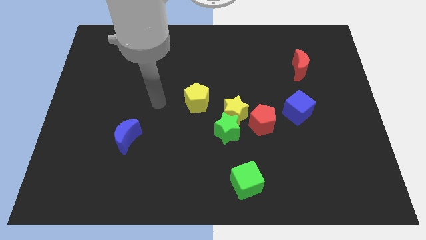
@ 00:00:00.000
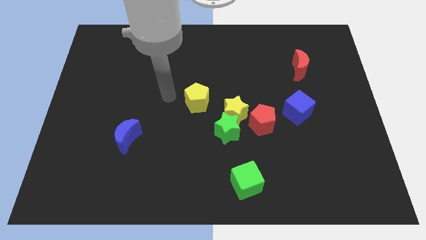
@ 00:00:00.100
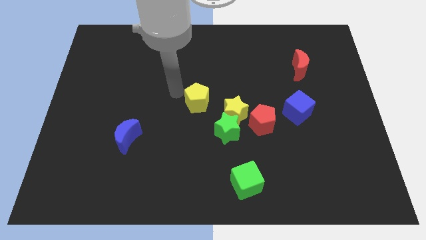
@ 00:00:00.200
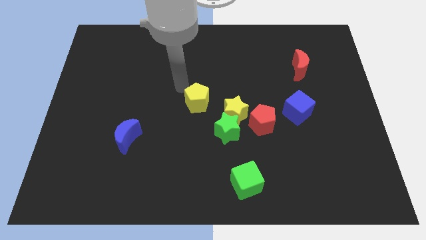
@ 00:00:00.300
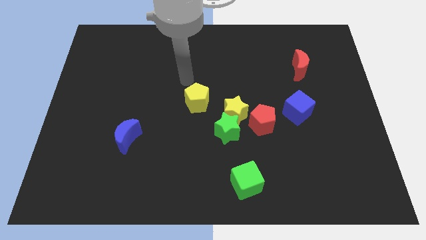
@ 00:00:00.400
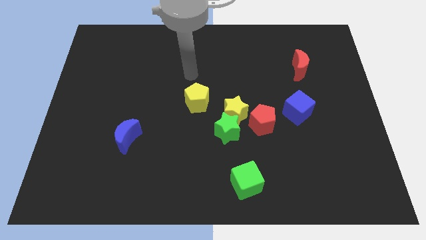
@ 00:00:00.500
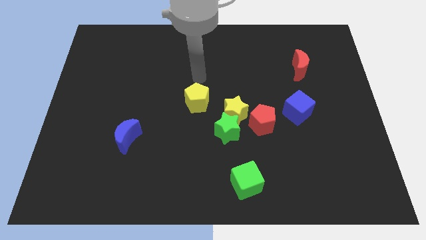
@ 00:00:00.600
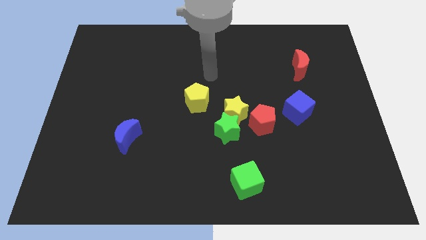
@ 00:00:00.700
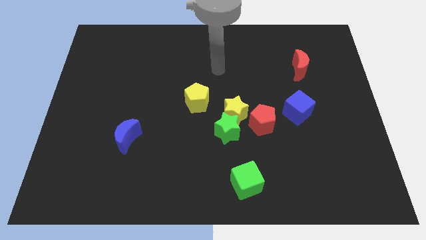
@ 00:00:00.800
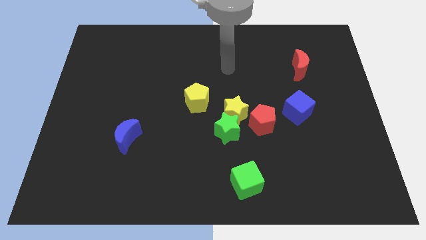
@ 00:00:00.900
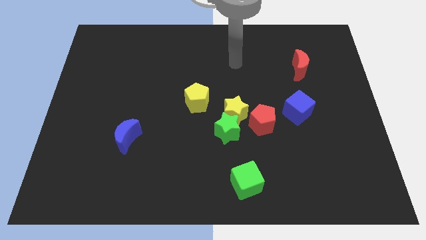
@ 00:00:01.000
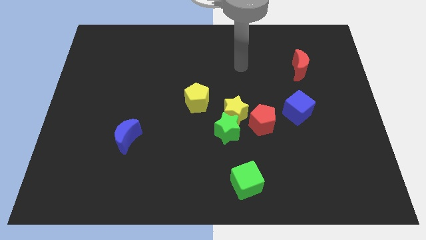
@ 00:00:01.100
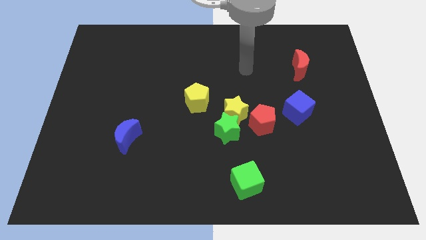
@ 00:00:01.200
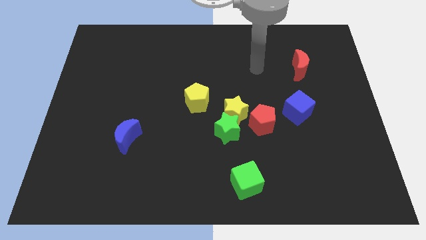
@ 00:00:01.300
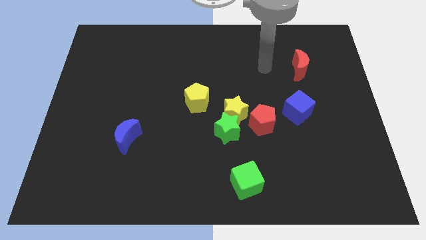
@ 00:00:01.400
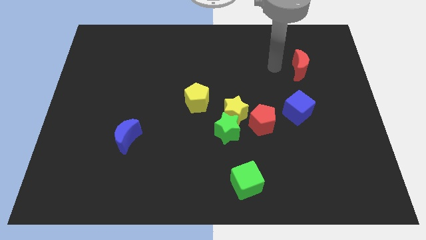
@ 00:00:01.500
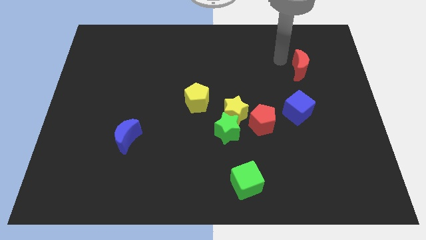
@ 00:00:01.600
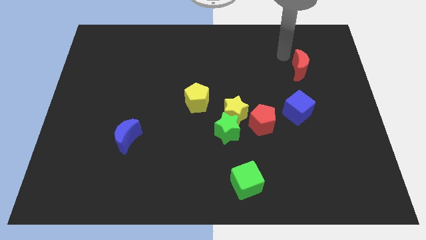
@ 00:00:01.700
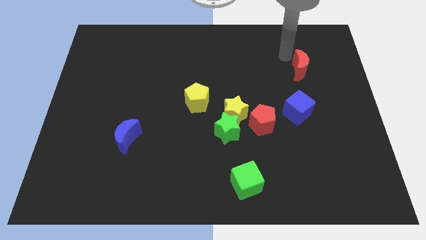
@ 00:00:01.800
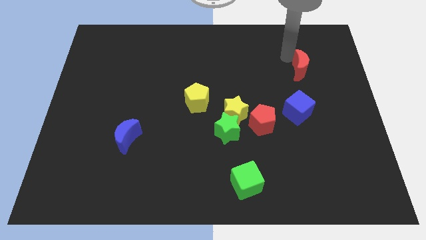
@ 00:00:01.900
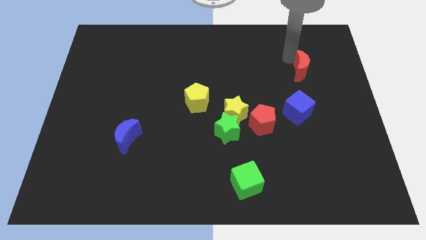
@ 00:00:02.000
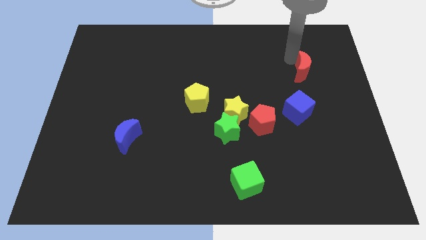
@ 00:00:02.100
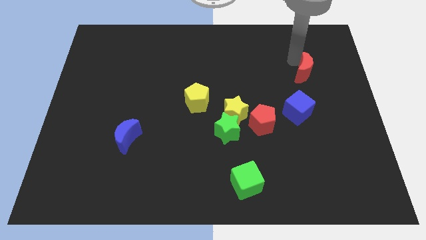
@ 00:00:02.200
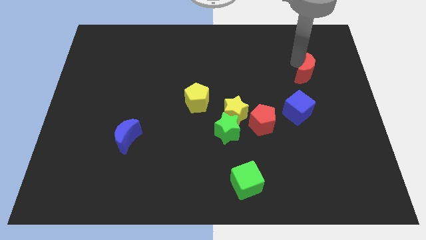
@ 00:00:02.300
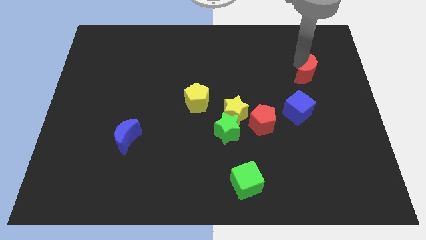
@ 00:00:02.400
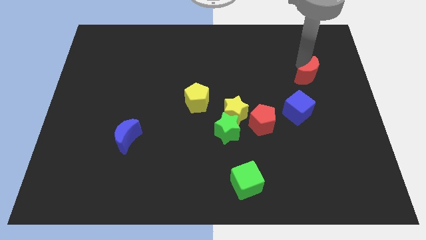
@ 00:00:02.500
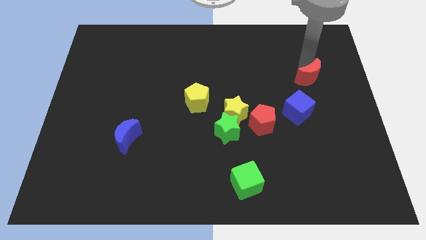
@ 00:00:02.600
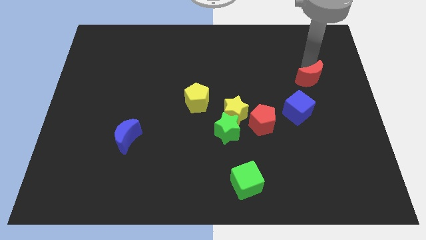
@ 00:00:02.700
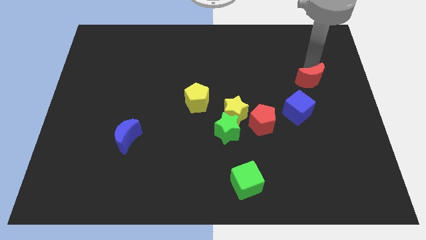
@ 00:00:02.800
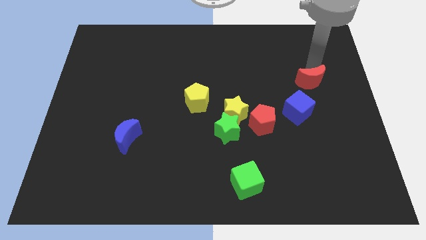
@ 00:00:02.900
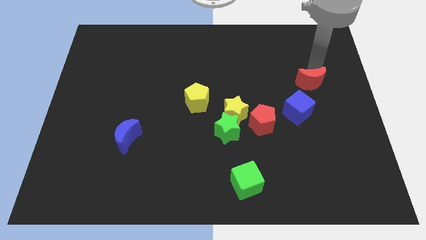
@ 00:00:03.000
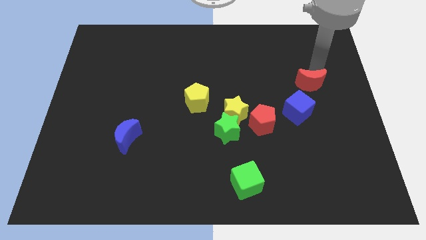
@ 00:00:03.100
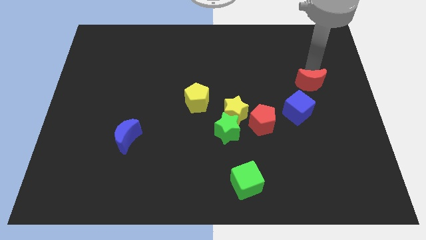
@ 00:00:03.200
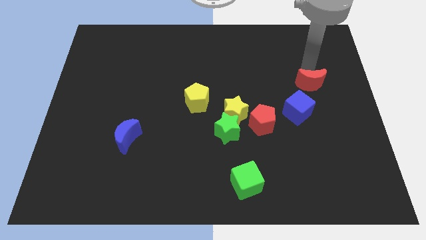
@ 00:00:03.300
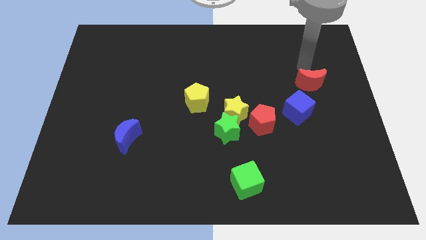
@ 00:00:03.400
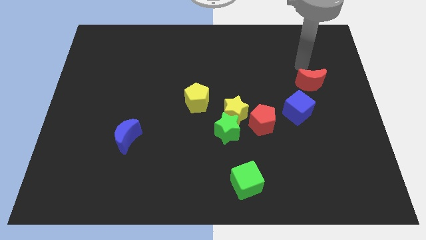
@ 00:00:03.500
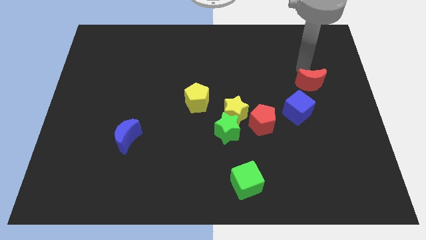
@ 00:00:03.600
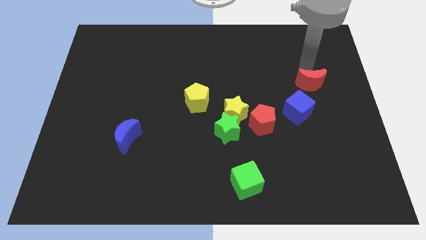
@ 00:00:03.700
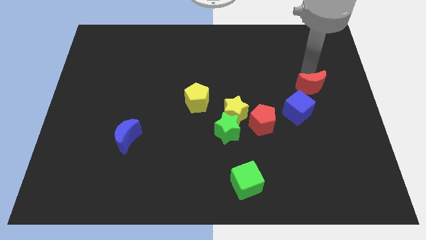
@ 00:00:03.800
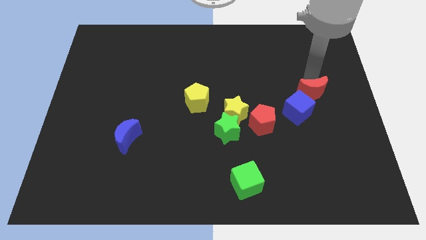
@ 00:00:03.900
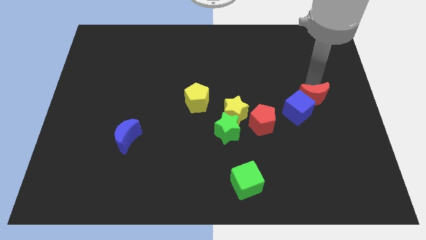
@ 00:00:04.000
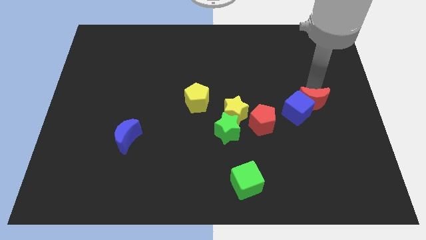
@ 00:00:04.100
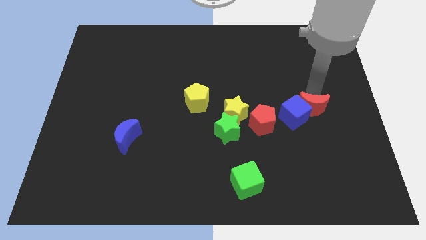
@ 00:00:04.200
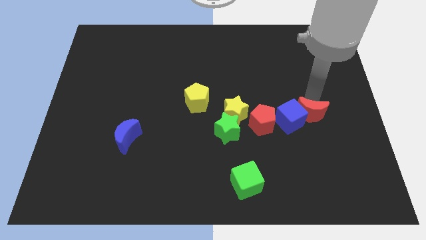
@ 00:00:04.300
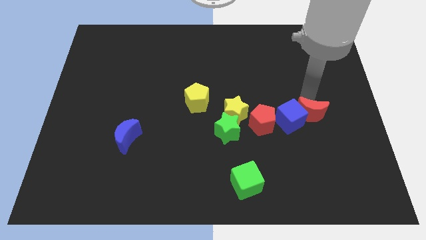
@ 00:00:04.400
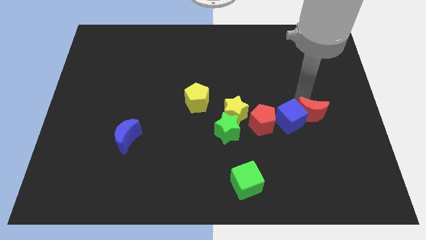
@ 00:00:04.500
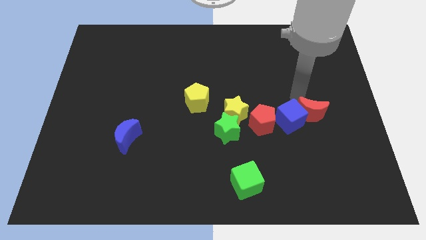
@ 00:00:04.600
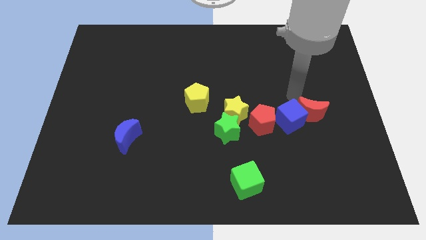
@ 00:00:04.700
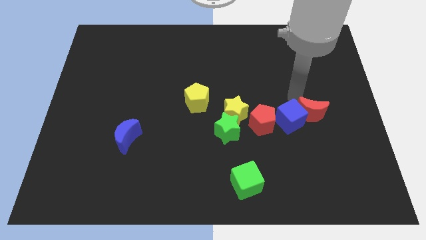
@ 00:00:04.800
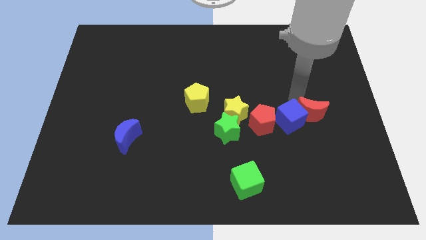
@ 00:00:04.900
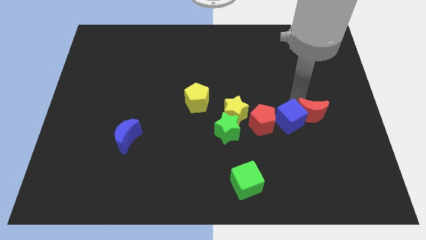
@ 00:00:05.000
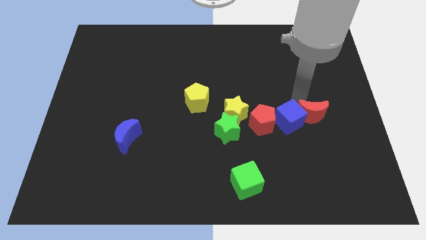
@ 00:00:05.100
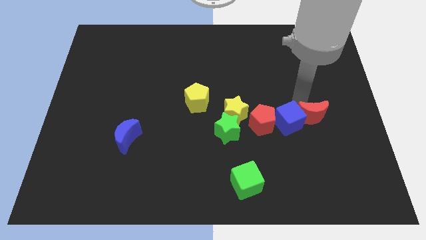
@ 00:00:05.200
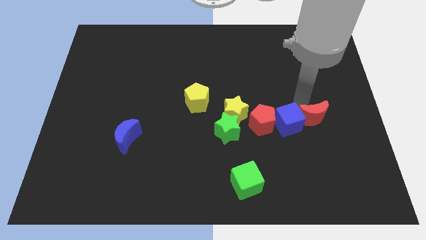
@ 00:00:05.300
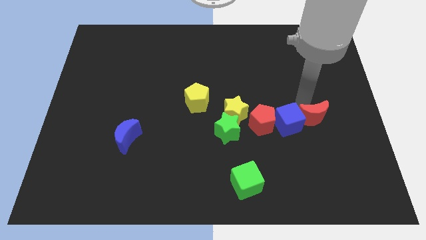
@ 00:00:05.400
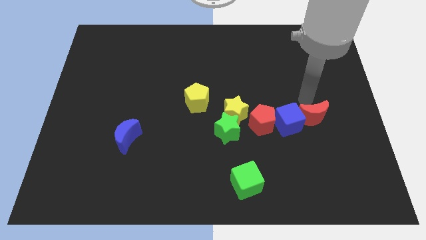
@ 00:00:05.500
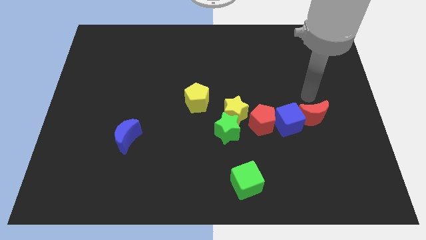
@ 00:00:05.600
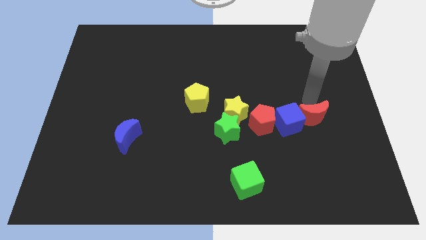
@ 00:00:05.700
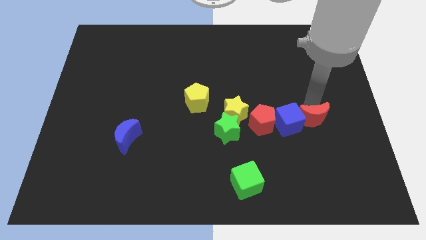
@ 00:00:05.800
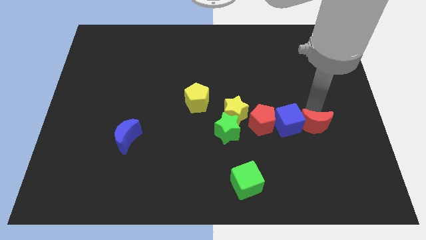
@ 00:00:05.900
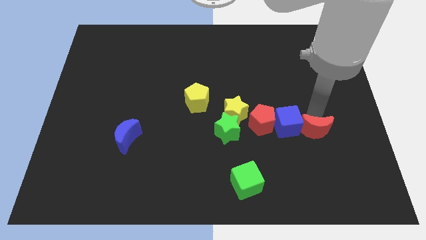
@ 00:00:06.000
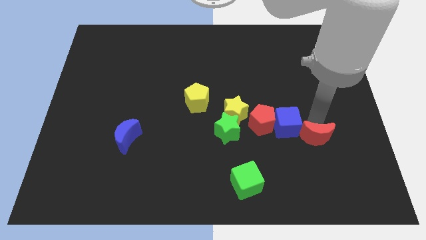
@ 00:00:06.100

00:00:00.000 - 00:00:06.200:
push the red moon down

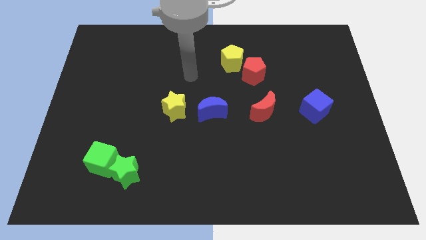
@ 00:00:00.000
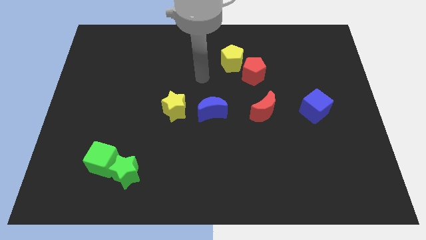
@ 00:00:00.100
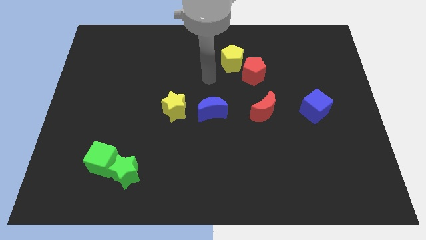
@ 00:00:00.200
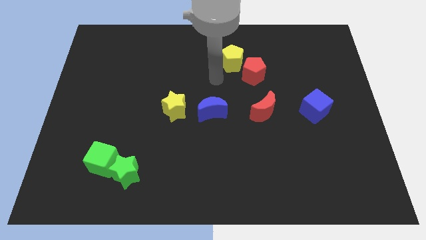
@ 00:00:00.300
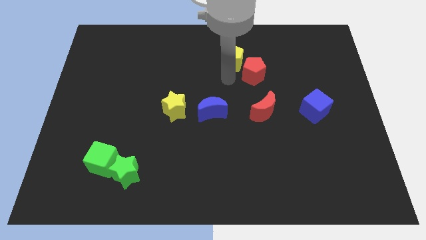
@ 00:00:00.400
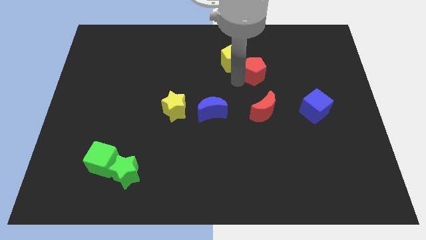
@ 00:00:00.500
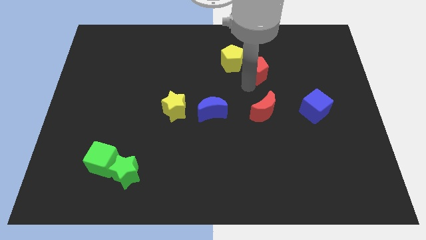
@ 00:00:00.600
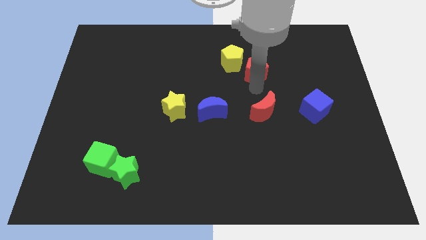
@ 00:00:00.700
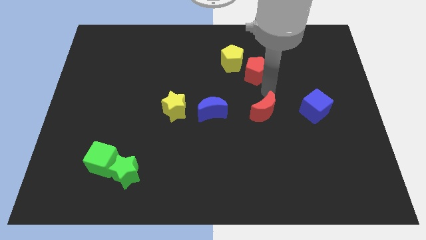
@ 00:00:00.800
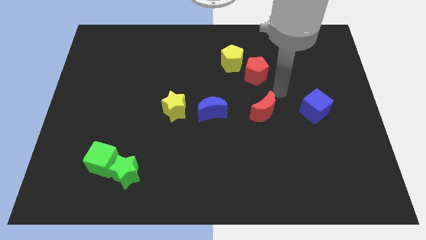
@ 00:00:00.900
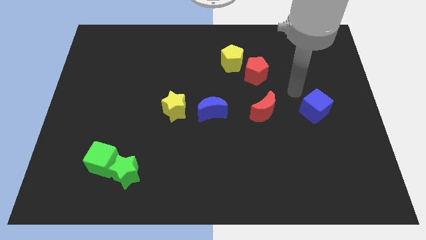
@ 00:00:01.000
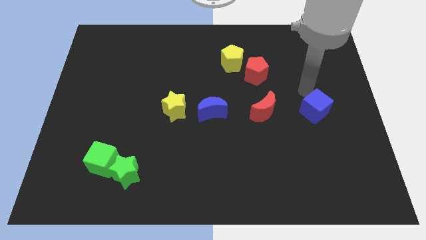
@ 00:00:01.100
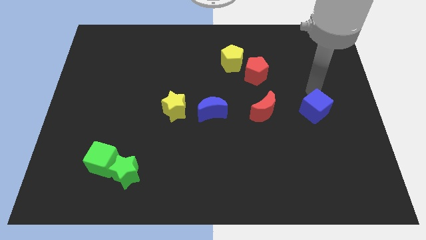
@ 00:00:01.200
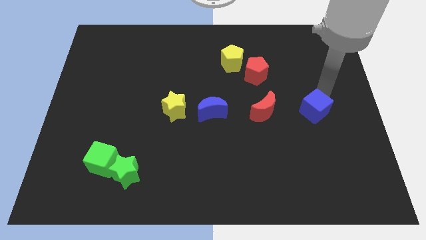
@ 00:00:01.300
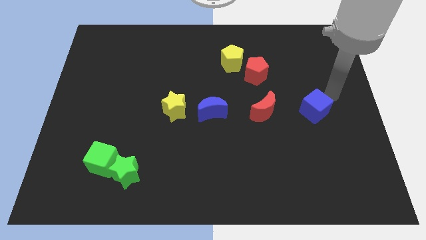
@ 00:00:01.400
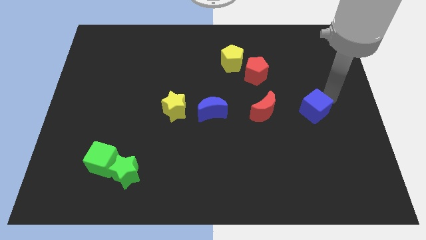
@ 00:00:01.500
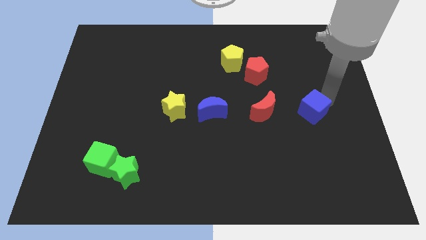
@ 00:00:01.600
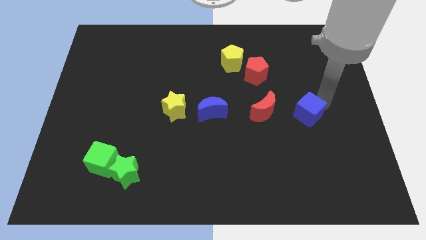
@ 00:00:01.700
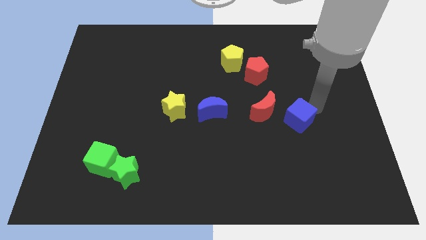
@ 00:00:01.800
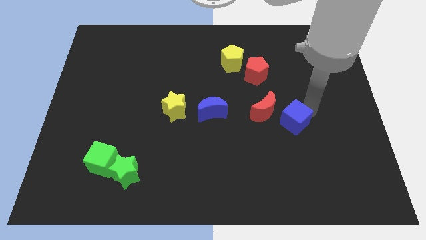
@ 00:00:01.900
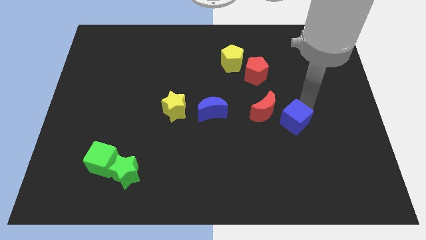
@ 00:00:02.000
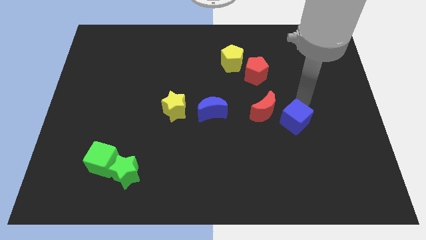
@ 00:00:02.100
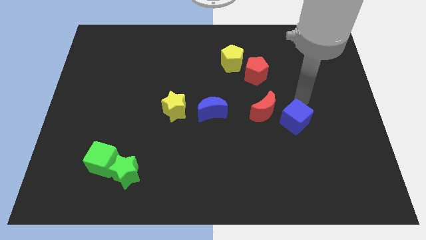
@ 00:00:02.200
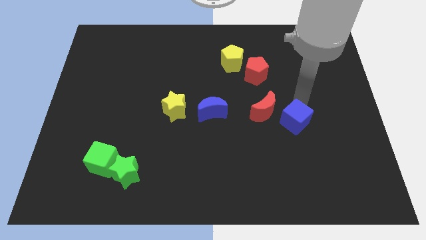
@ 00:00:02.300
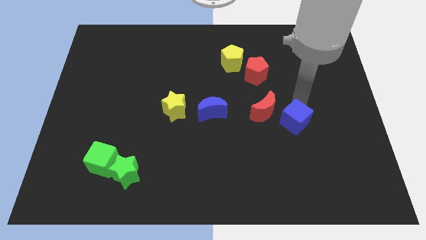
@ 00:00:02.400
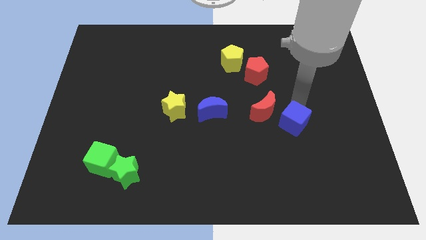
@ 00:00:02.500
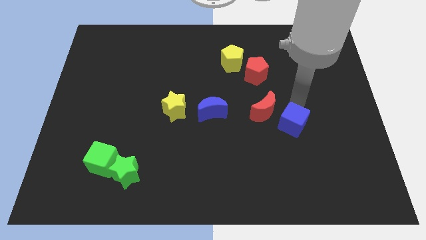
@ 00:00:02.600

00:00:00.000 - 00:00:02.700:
move the blue cube a bit down and left diagonally
